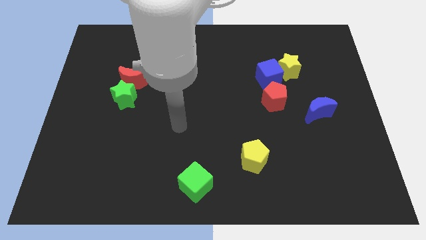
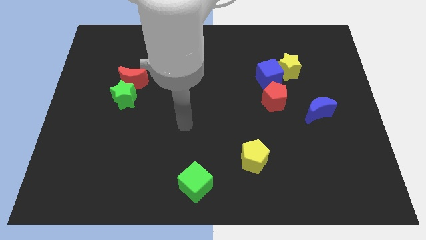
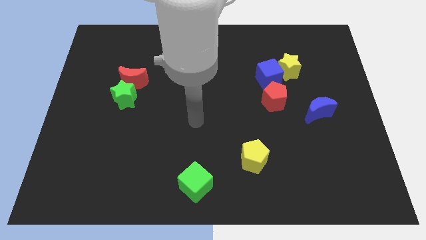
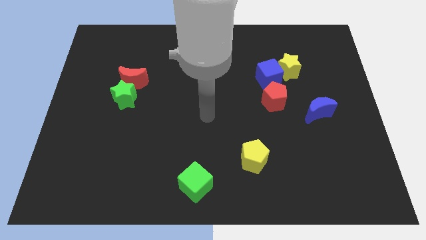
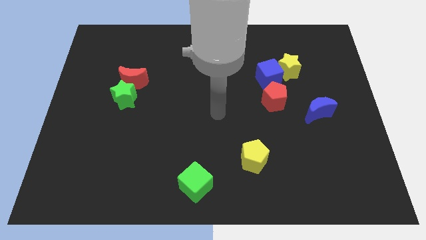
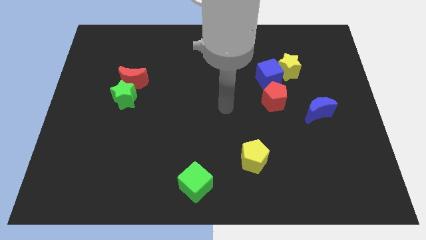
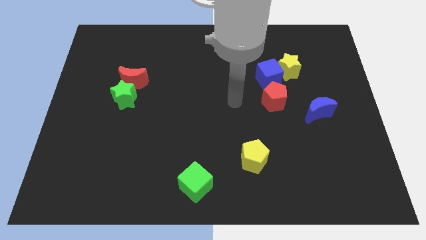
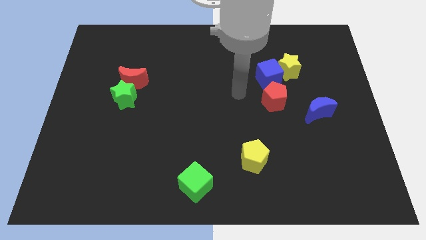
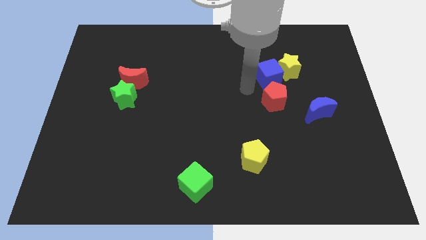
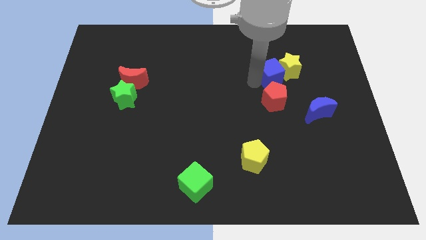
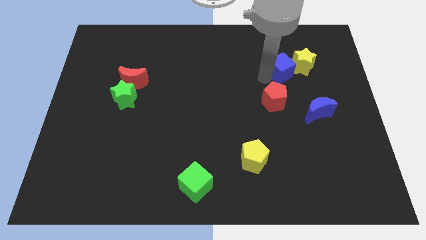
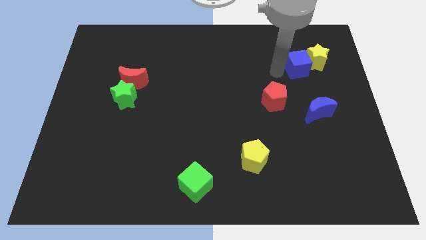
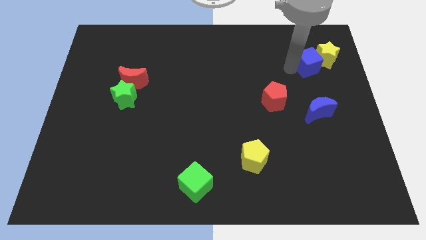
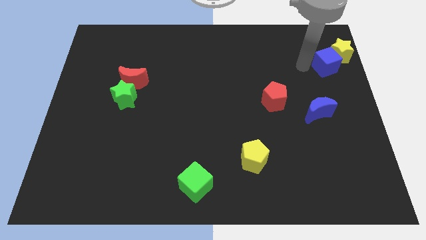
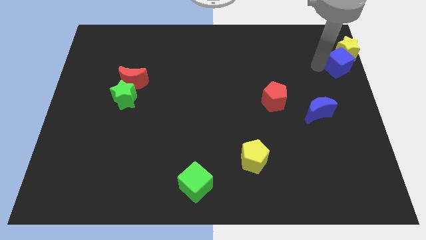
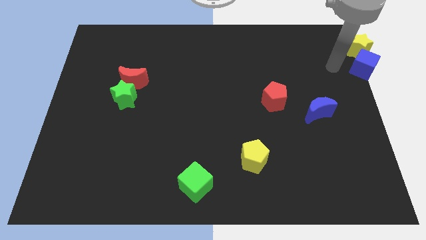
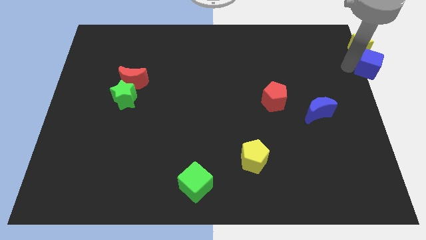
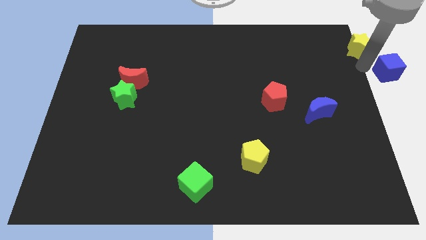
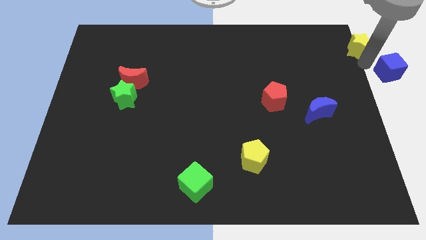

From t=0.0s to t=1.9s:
separate the yellow star from the blue cube

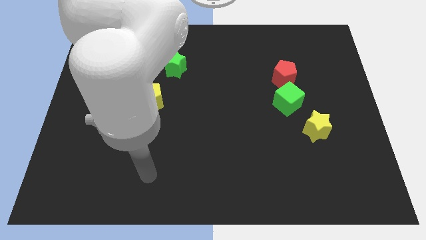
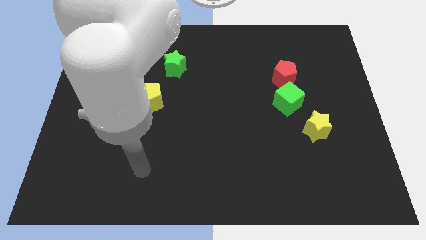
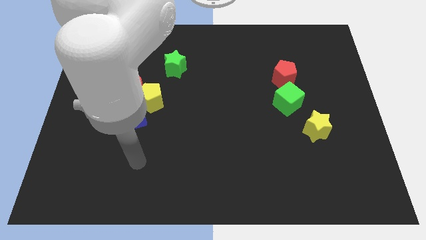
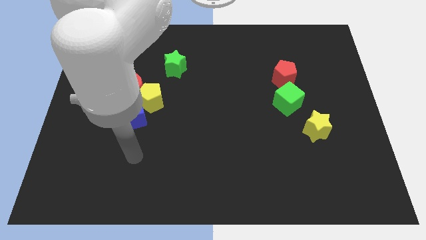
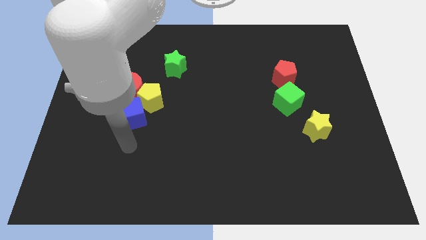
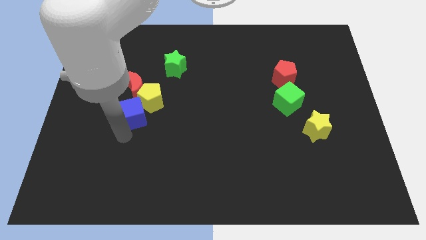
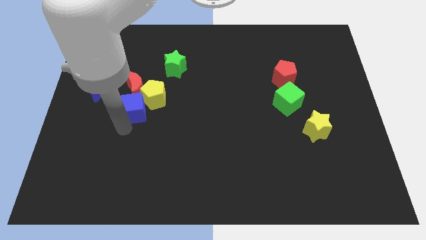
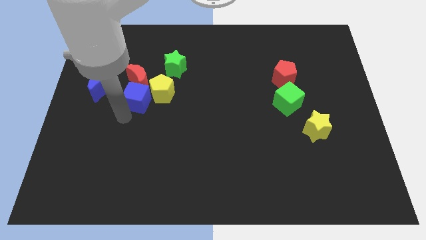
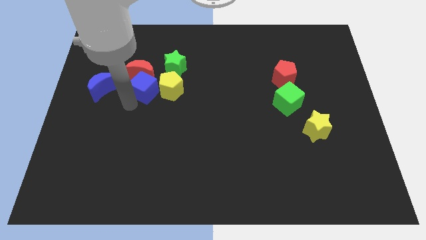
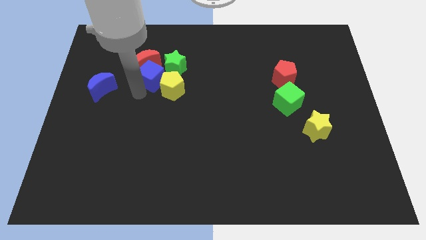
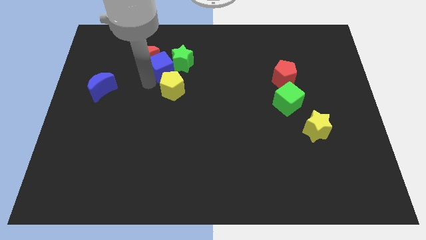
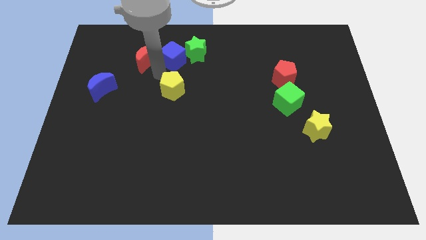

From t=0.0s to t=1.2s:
move the yellow pentagon away from the red moon and blue cube

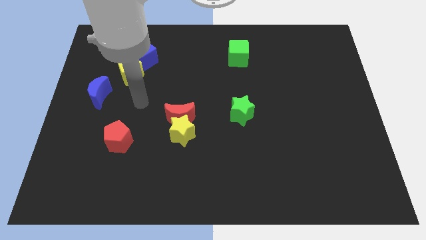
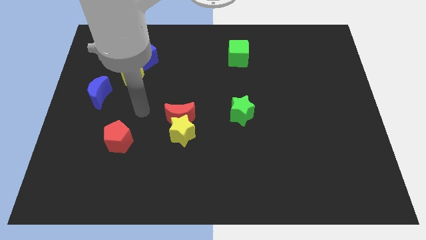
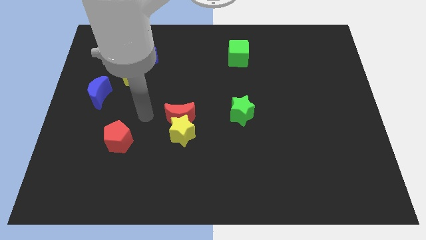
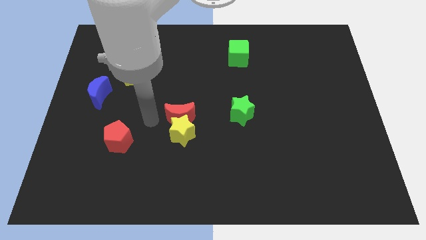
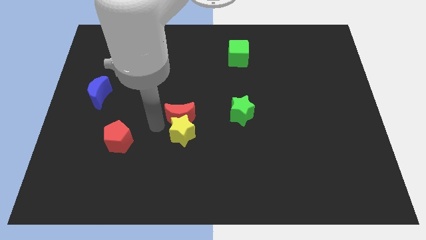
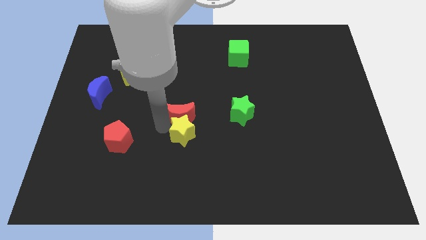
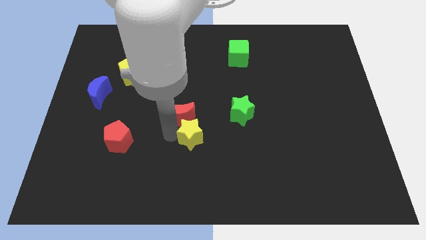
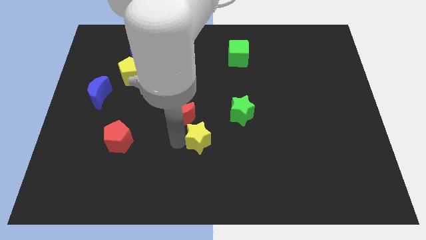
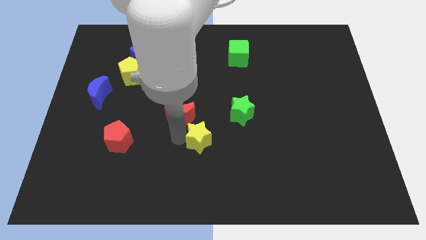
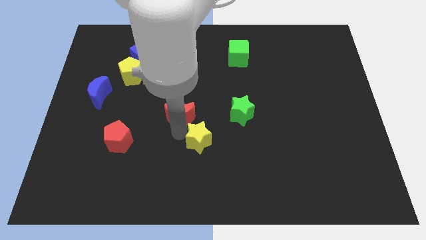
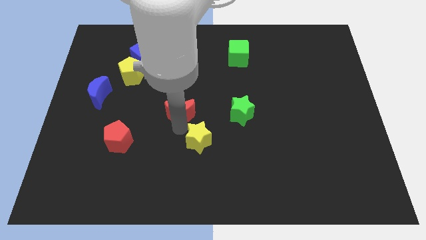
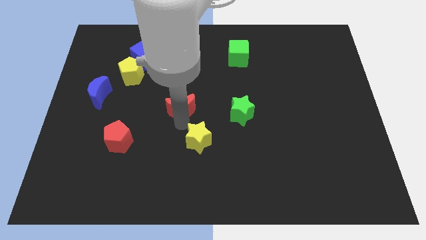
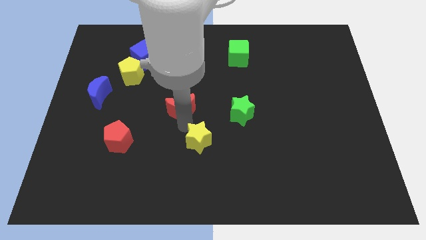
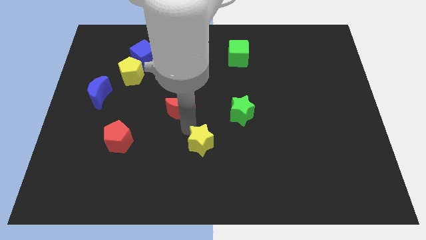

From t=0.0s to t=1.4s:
pull the red moon apart from the yellow star

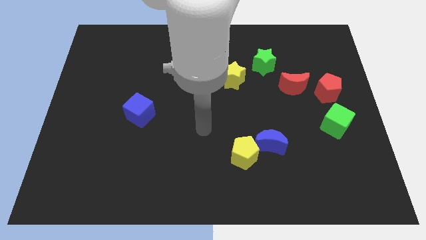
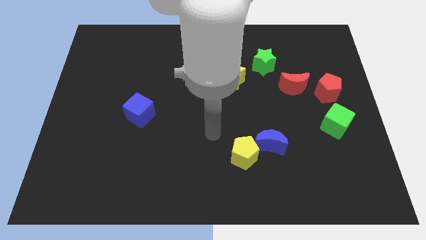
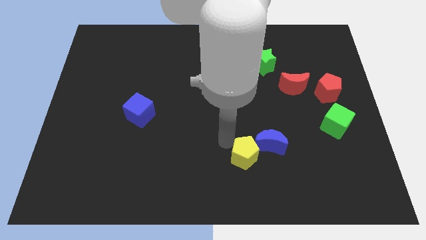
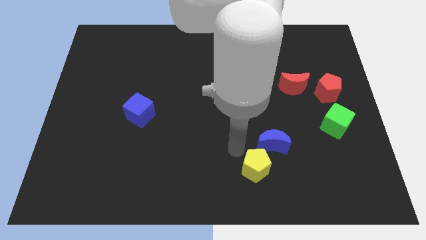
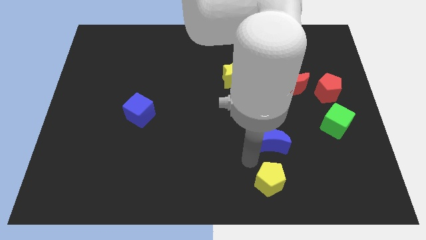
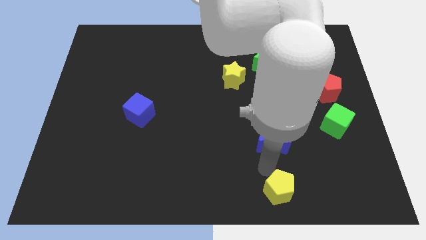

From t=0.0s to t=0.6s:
pull the blue moon apart from the yellow pentagon

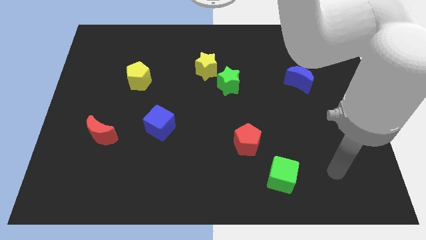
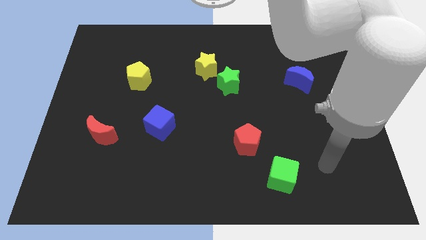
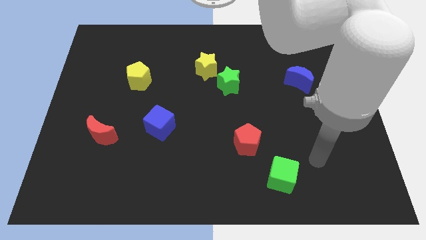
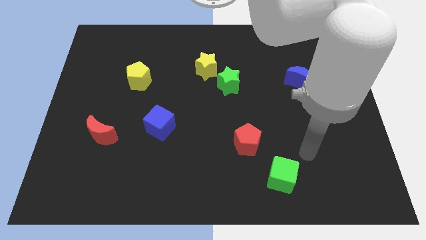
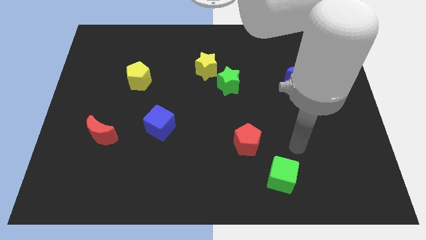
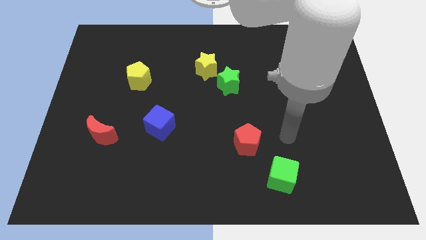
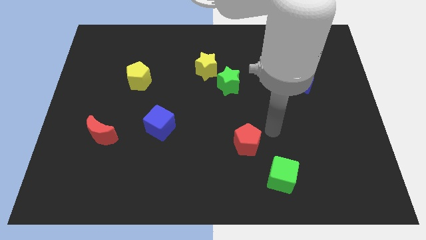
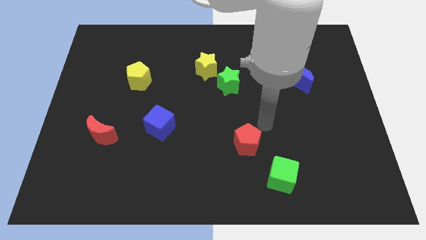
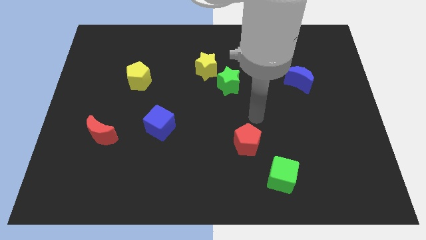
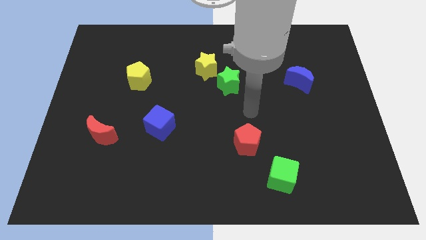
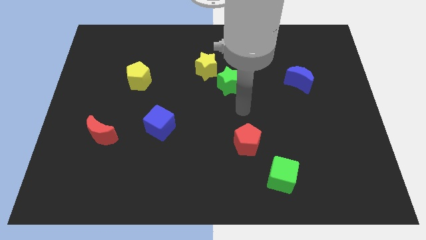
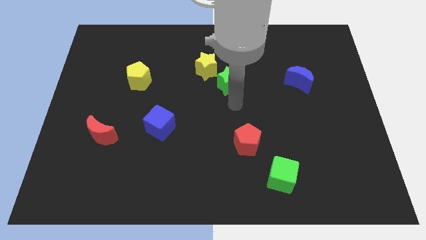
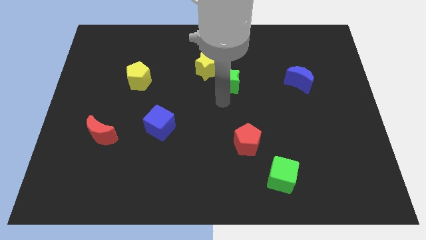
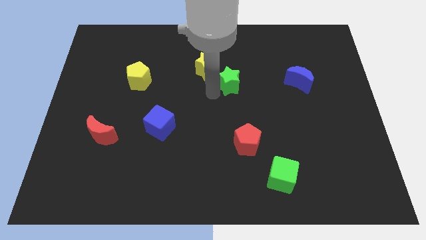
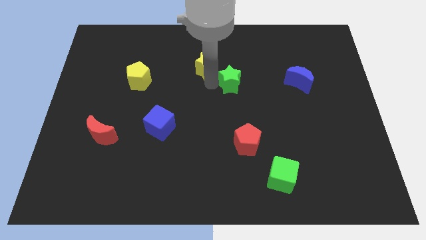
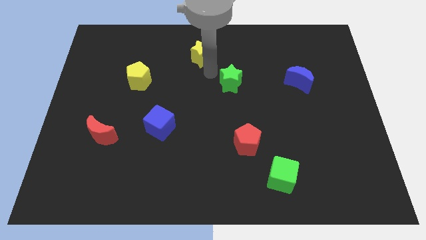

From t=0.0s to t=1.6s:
move the green star away from the yellow star

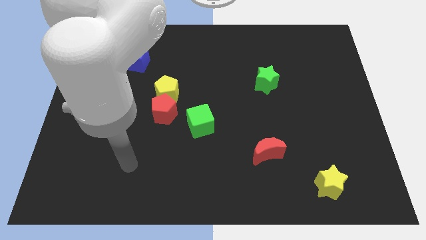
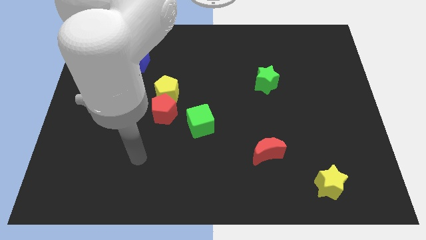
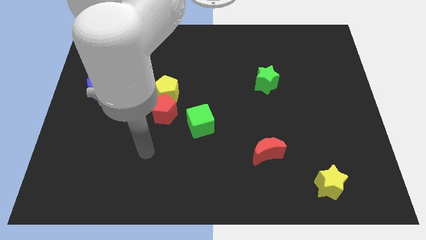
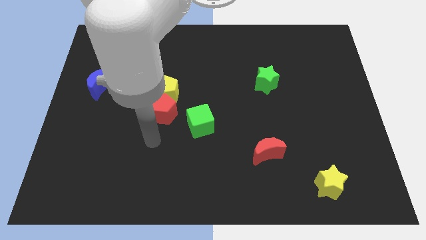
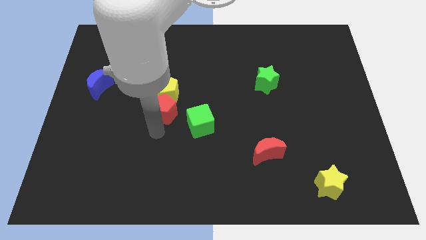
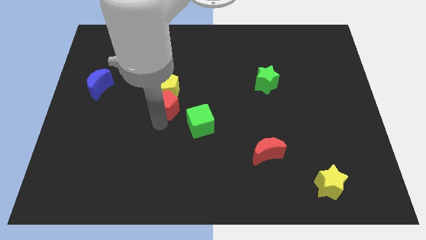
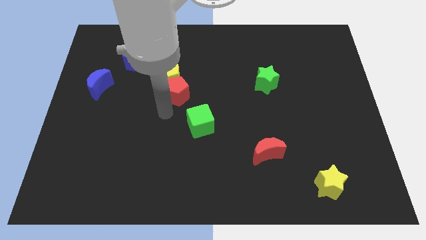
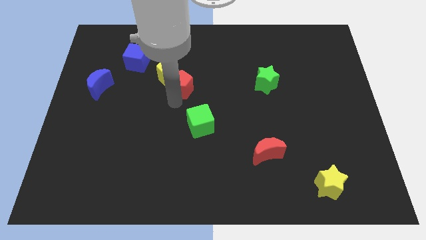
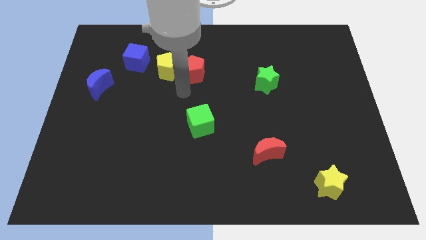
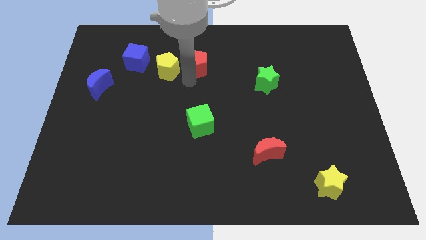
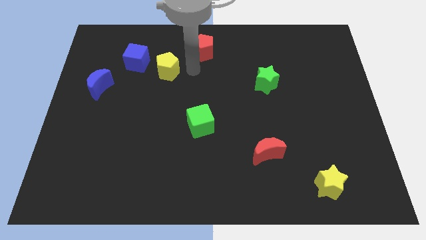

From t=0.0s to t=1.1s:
pull the yellow pentagon apart from the red pentagon

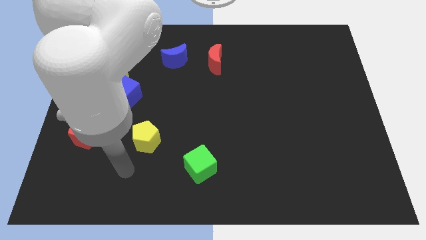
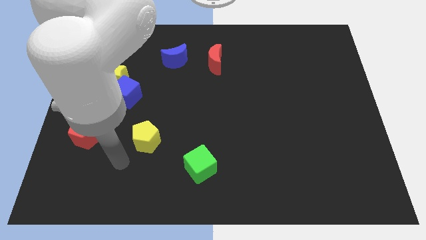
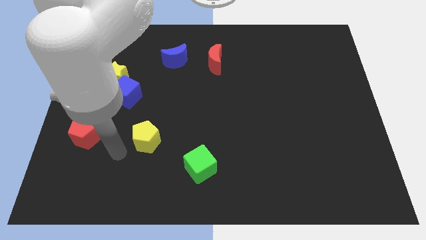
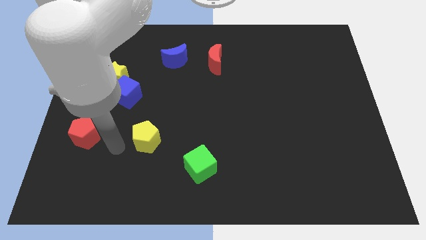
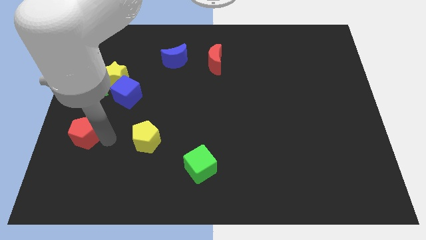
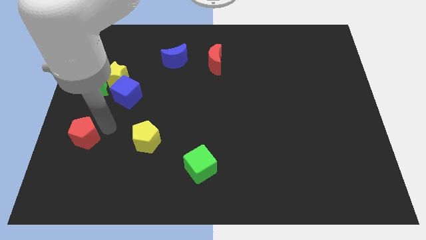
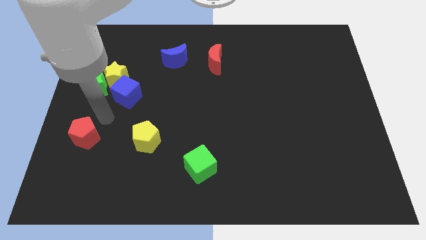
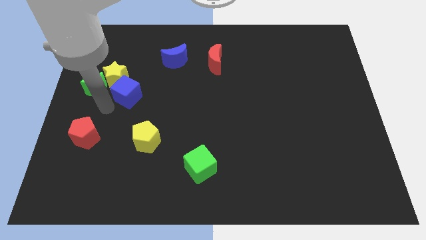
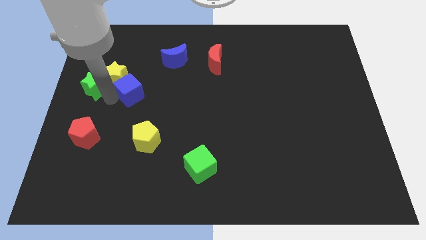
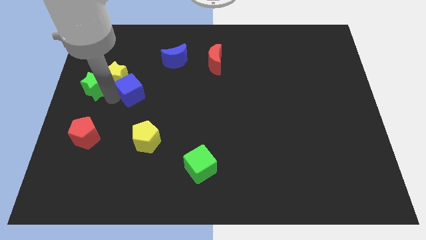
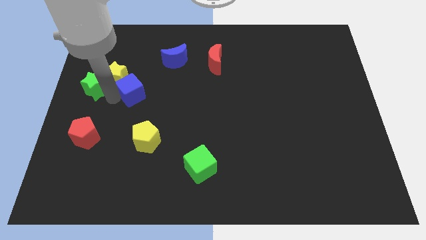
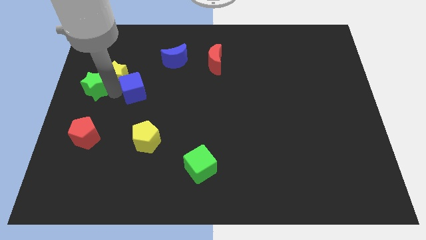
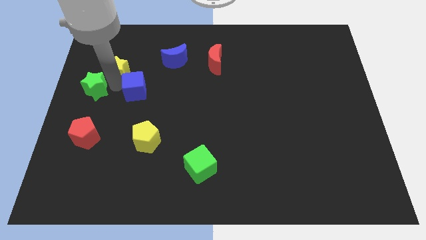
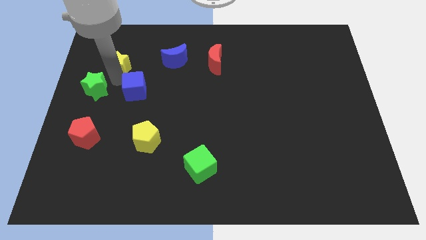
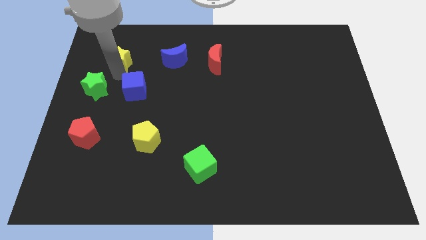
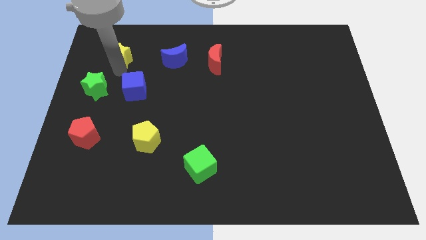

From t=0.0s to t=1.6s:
separate the yellow star from the green star and blue cube
